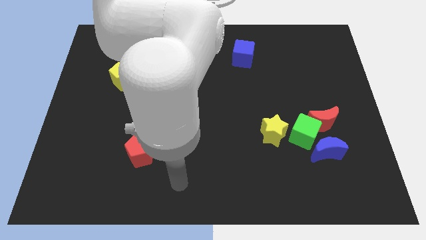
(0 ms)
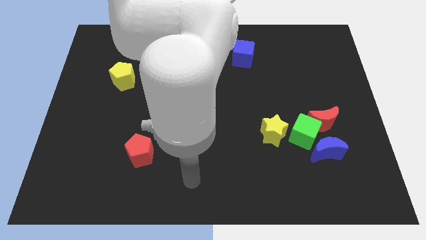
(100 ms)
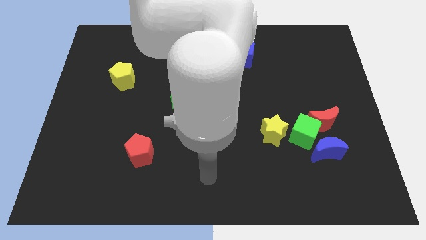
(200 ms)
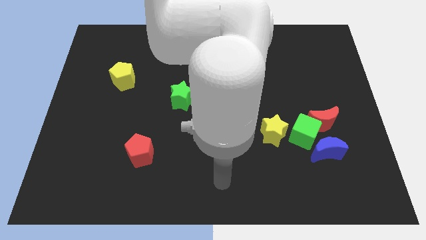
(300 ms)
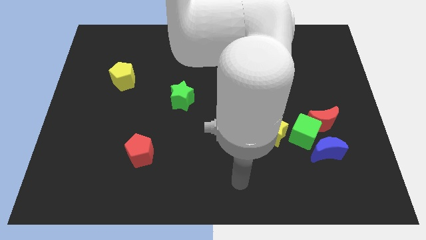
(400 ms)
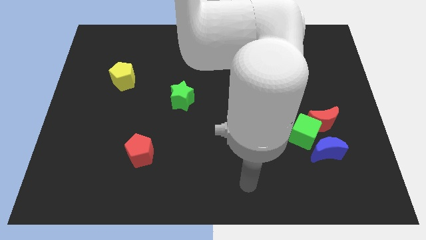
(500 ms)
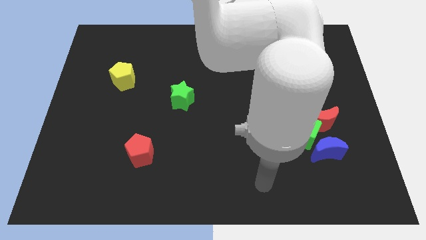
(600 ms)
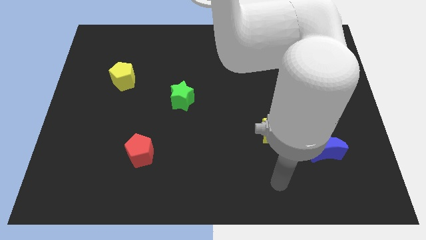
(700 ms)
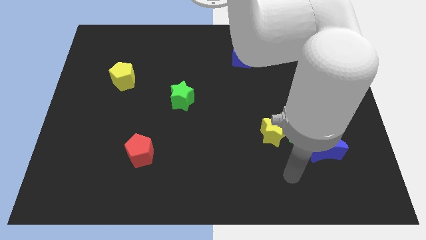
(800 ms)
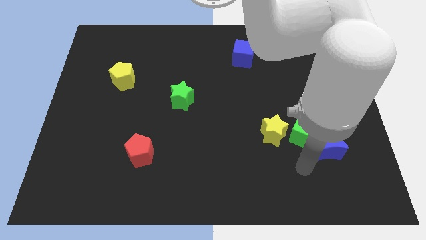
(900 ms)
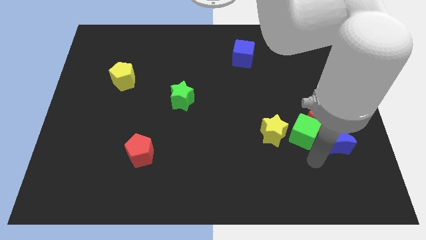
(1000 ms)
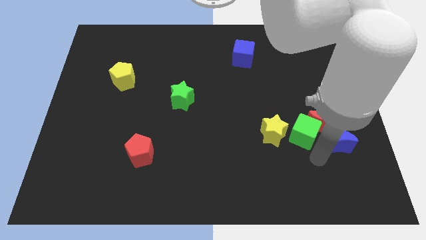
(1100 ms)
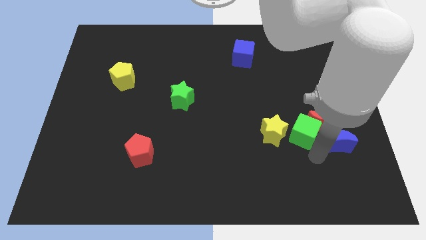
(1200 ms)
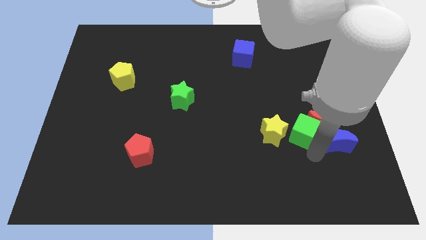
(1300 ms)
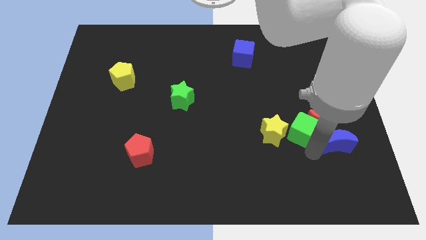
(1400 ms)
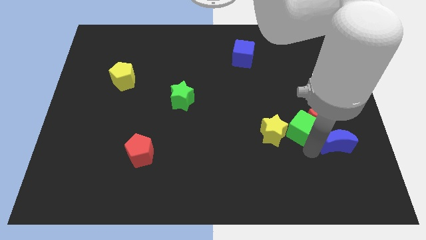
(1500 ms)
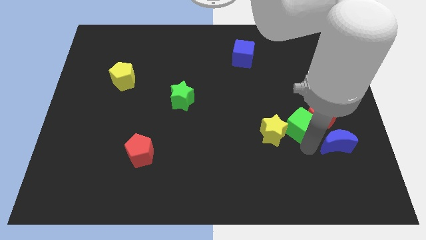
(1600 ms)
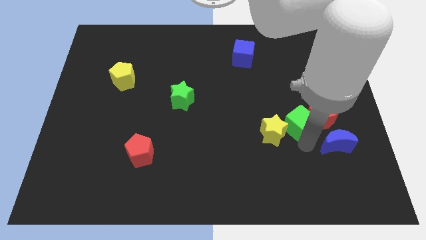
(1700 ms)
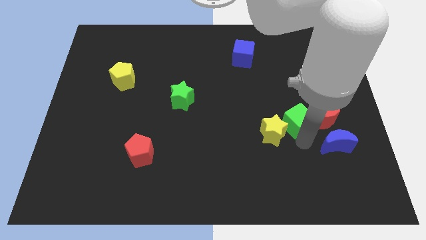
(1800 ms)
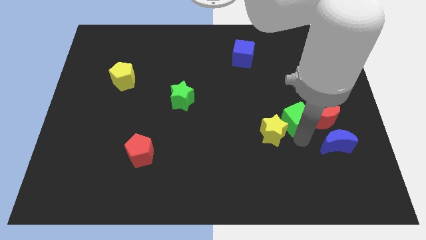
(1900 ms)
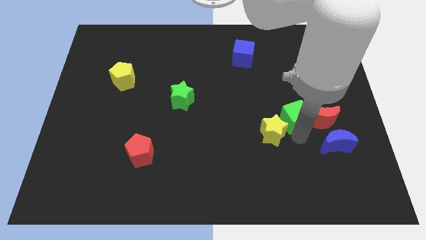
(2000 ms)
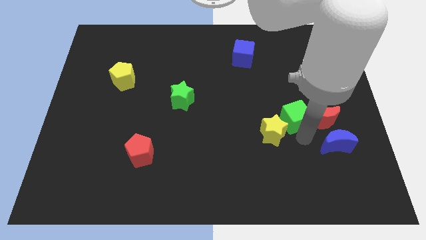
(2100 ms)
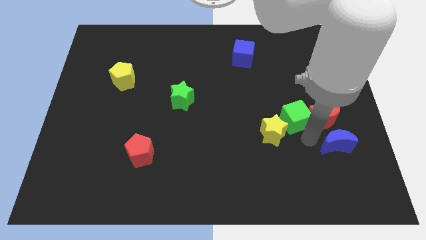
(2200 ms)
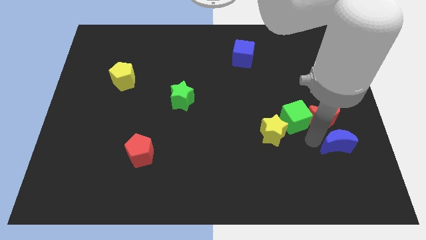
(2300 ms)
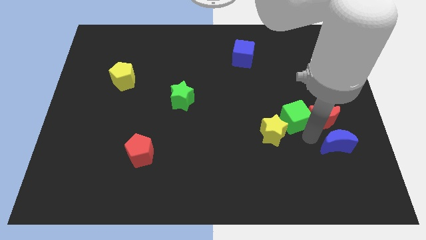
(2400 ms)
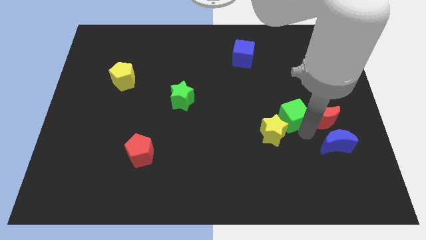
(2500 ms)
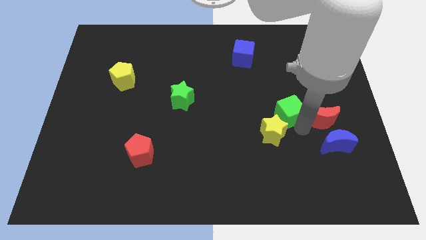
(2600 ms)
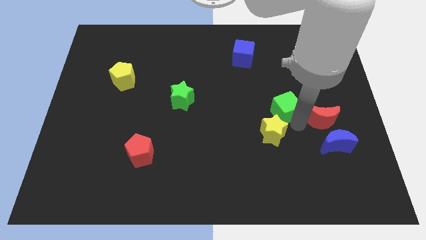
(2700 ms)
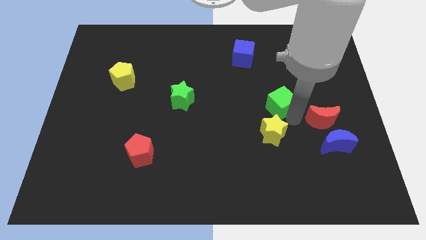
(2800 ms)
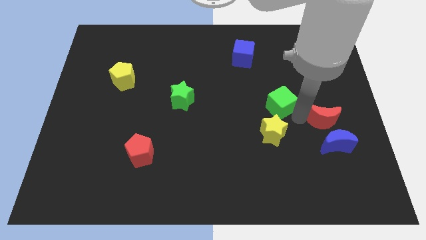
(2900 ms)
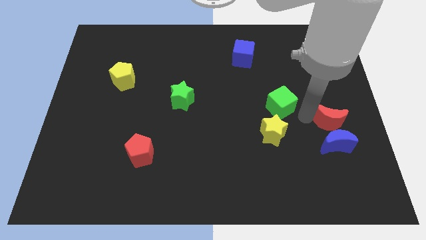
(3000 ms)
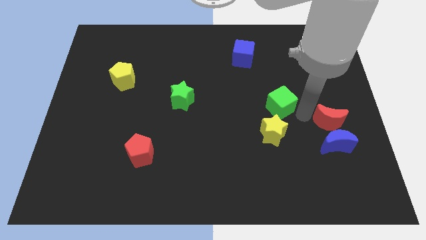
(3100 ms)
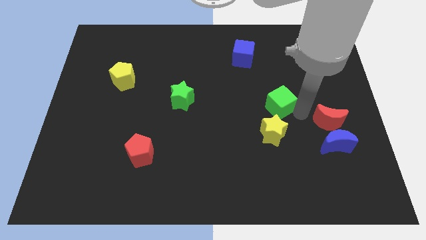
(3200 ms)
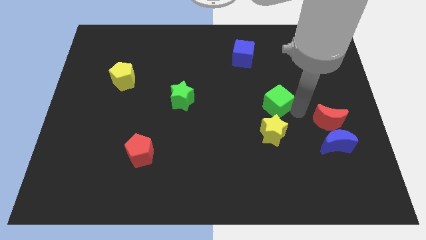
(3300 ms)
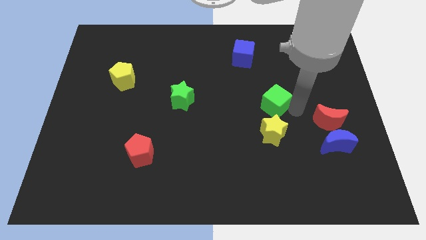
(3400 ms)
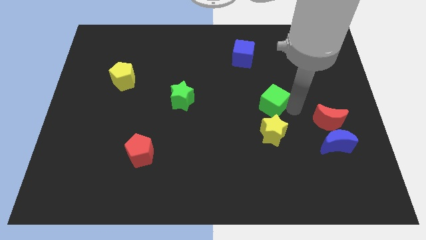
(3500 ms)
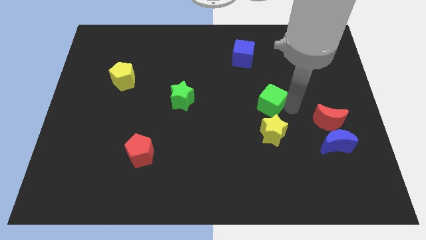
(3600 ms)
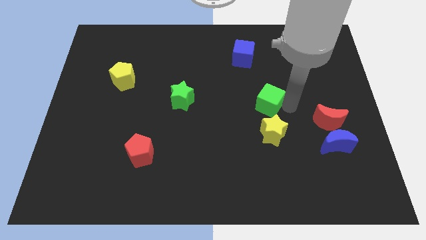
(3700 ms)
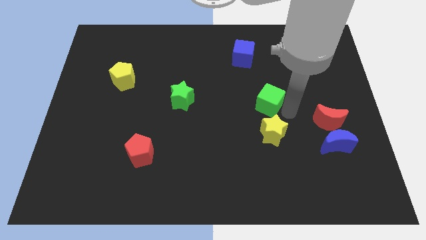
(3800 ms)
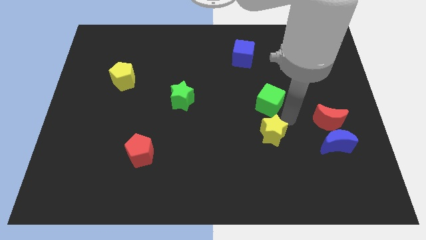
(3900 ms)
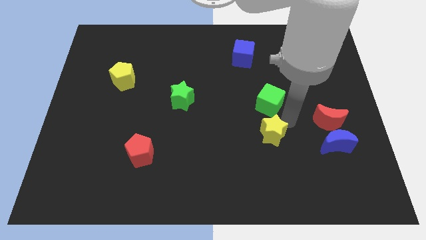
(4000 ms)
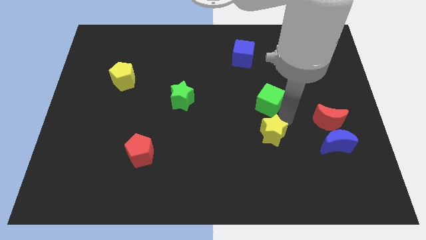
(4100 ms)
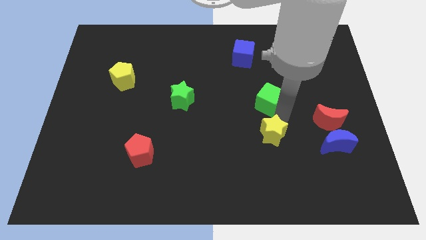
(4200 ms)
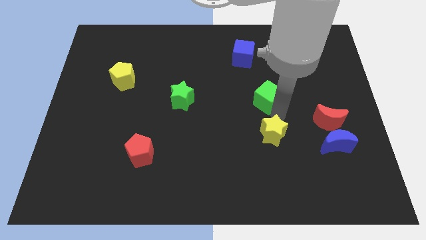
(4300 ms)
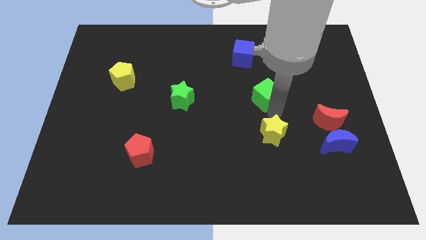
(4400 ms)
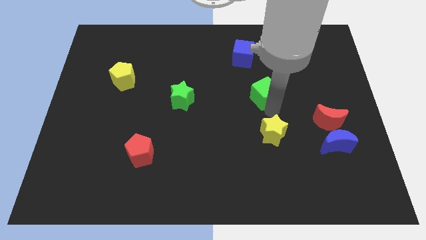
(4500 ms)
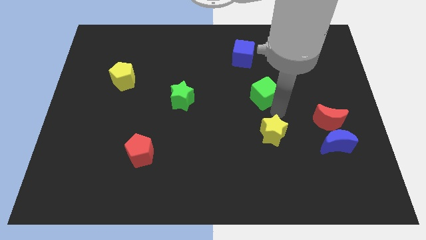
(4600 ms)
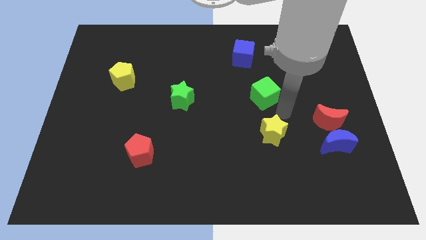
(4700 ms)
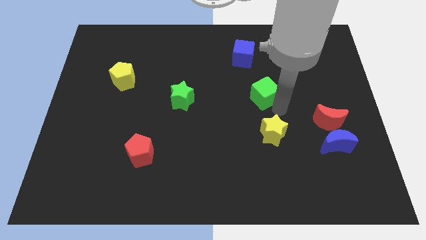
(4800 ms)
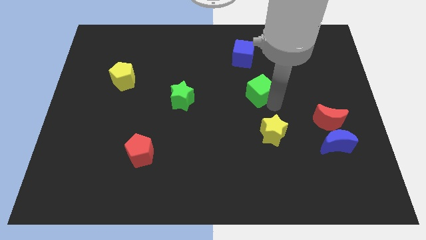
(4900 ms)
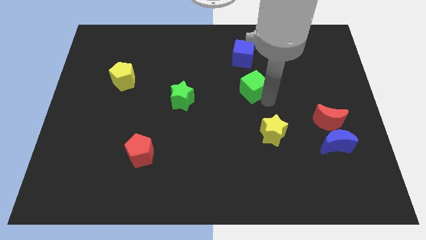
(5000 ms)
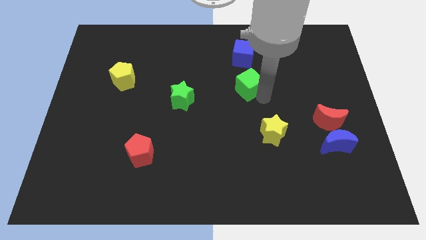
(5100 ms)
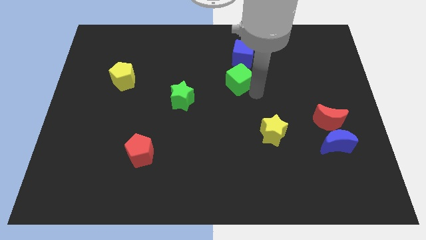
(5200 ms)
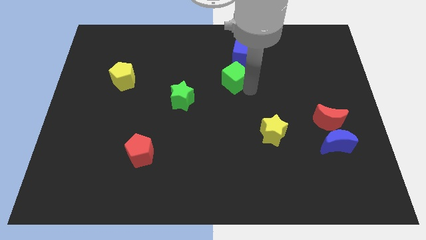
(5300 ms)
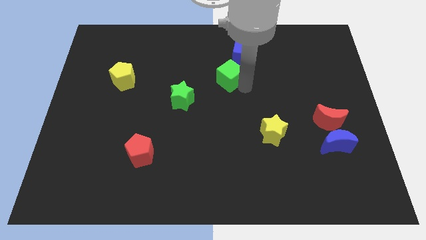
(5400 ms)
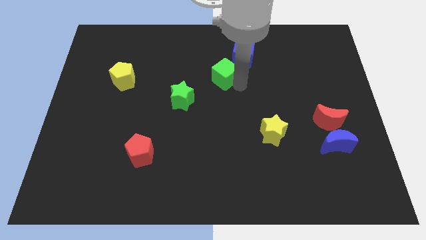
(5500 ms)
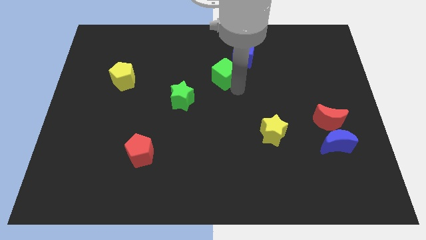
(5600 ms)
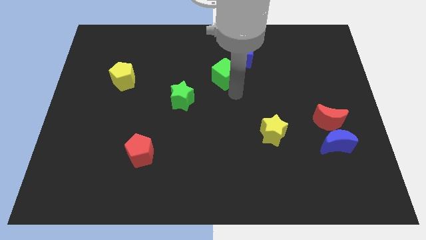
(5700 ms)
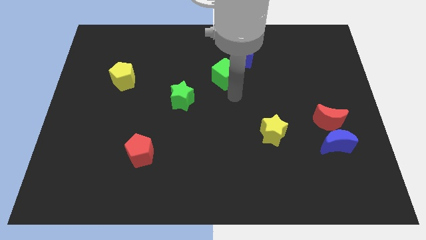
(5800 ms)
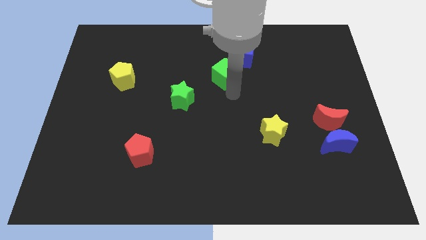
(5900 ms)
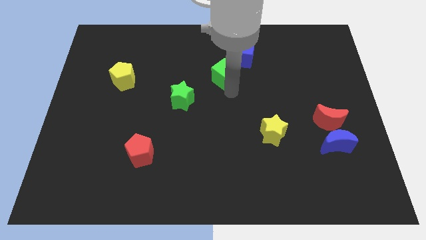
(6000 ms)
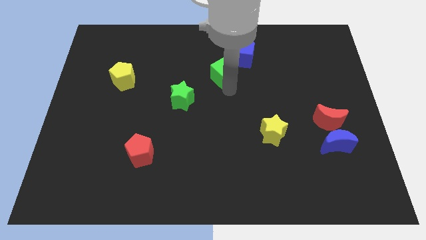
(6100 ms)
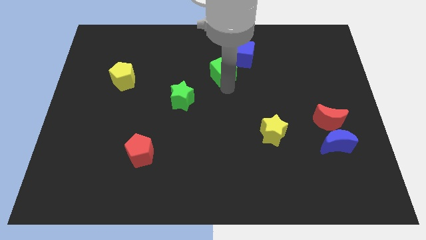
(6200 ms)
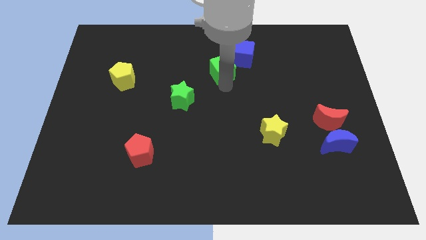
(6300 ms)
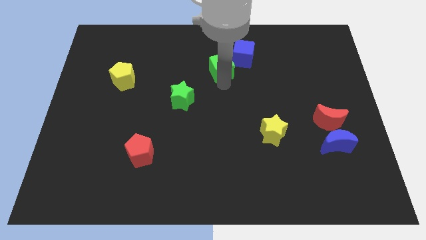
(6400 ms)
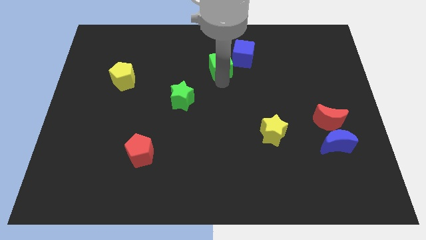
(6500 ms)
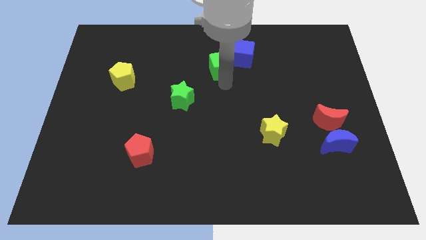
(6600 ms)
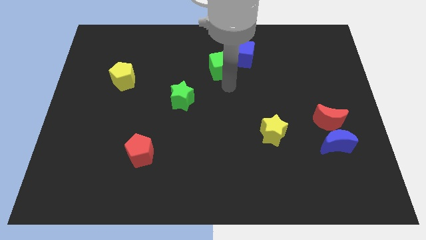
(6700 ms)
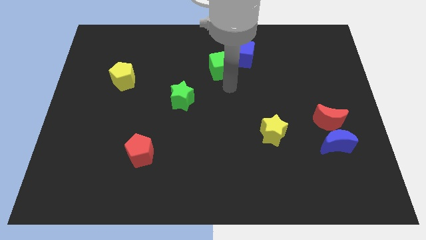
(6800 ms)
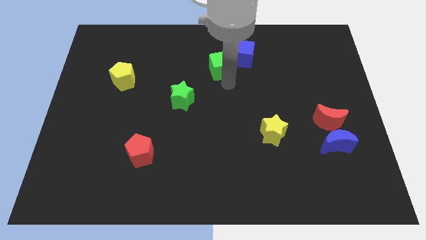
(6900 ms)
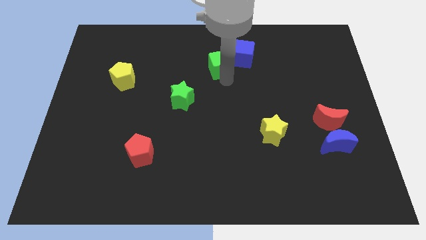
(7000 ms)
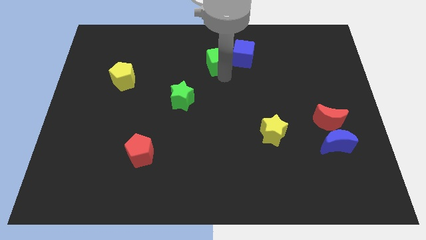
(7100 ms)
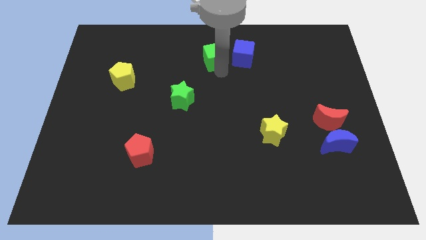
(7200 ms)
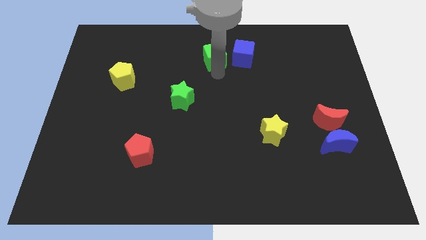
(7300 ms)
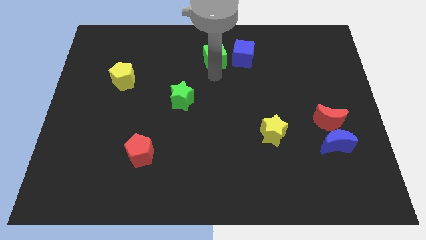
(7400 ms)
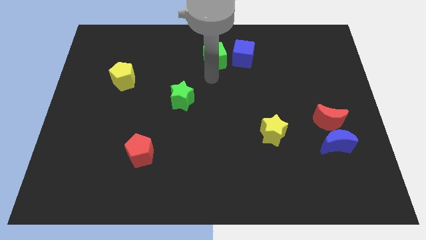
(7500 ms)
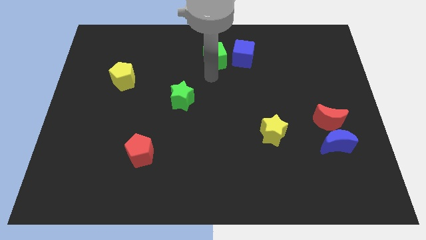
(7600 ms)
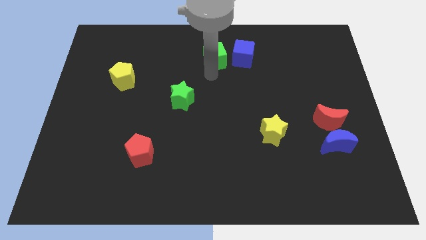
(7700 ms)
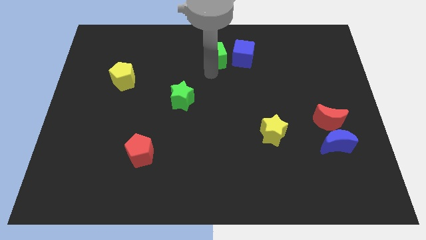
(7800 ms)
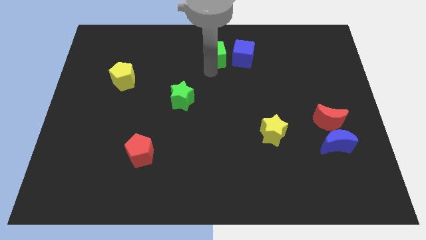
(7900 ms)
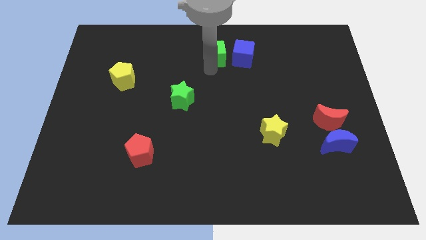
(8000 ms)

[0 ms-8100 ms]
push the green cube to the top
